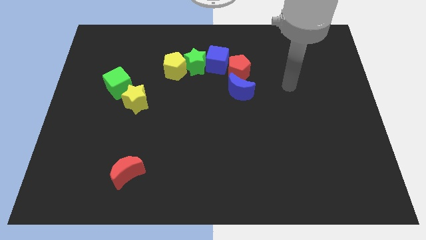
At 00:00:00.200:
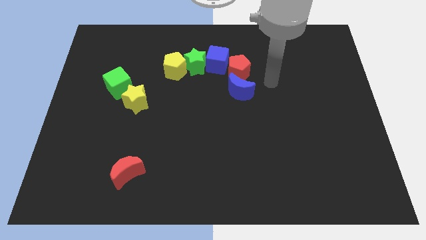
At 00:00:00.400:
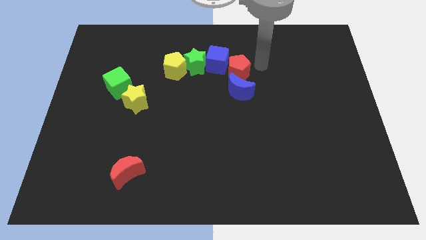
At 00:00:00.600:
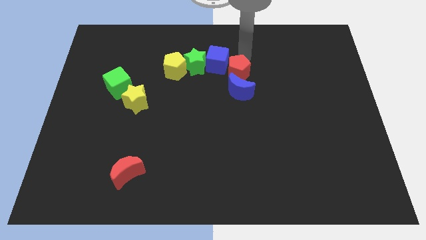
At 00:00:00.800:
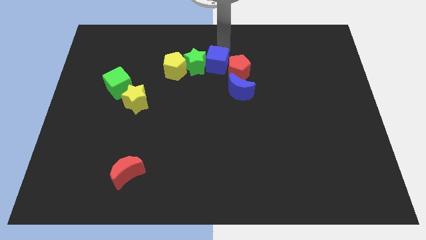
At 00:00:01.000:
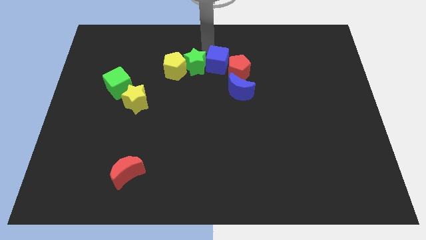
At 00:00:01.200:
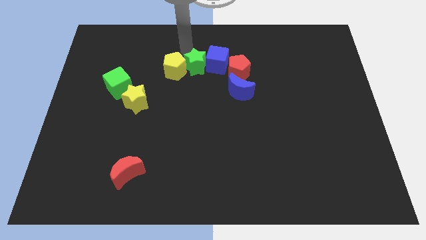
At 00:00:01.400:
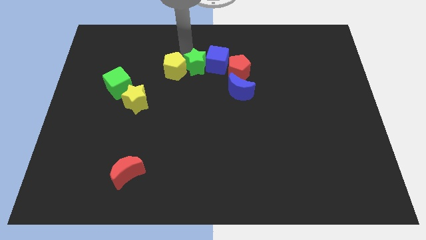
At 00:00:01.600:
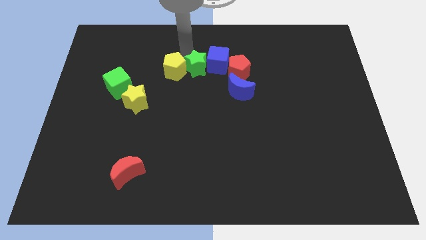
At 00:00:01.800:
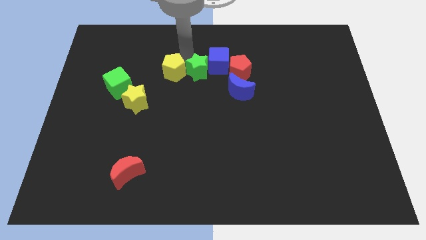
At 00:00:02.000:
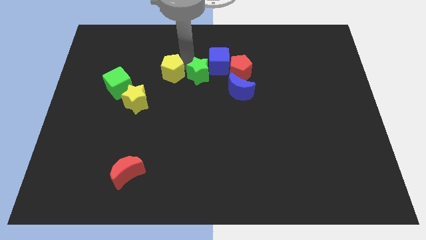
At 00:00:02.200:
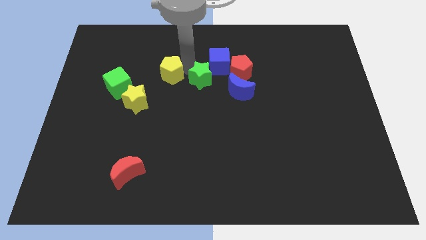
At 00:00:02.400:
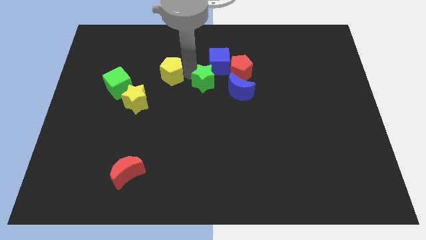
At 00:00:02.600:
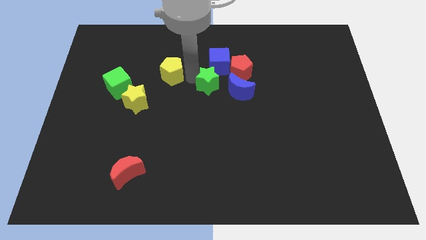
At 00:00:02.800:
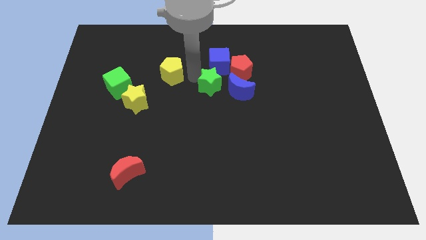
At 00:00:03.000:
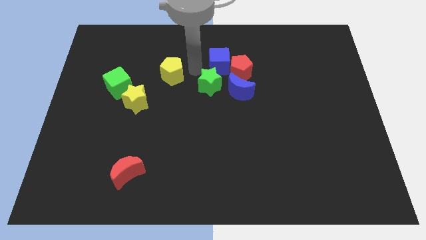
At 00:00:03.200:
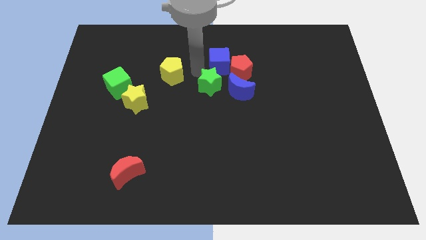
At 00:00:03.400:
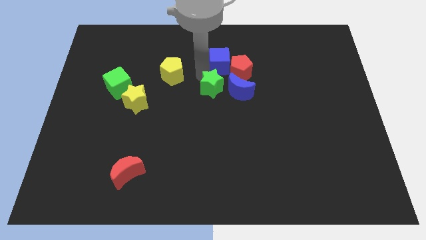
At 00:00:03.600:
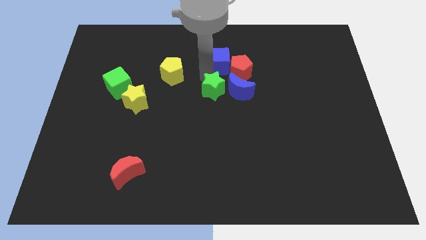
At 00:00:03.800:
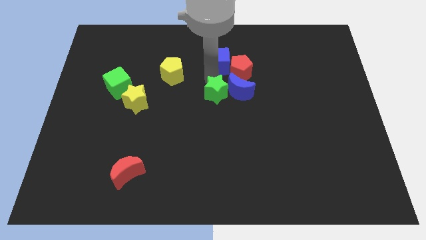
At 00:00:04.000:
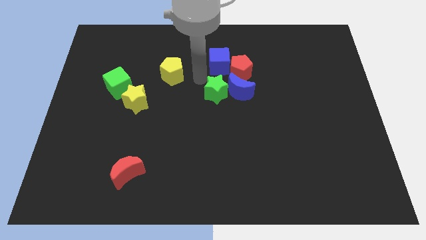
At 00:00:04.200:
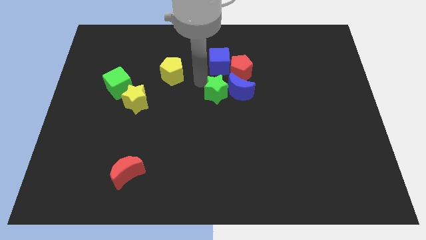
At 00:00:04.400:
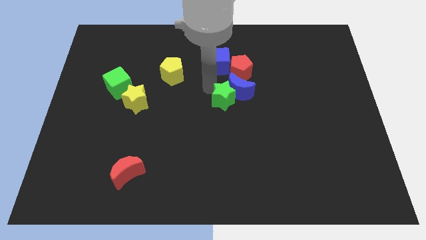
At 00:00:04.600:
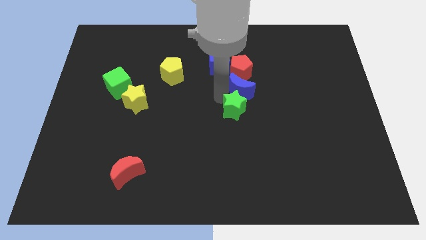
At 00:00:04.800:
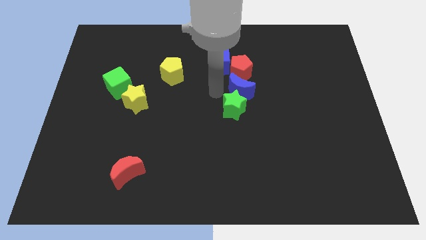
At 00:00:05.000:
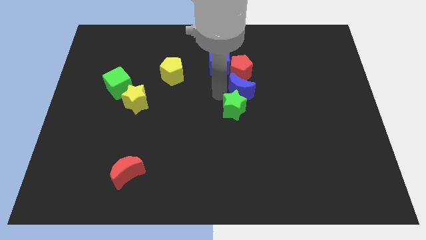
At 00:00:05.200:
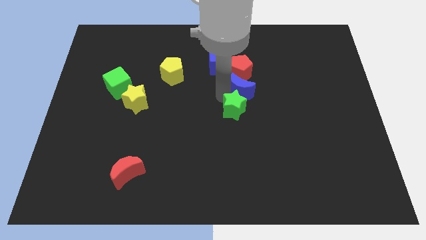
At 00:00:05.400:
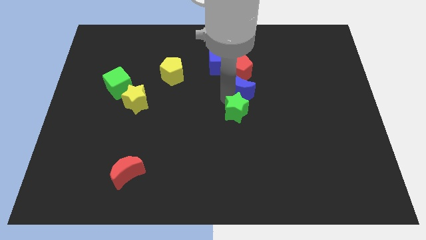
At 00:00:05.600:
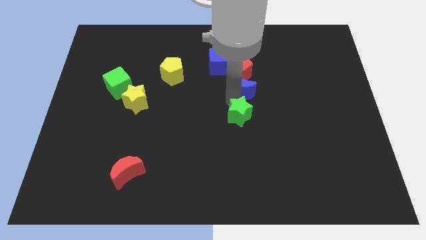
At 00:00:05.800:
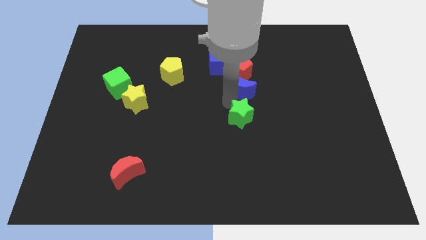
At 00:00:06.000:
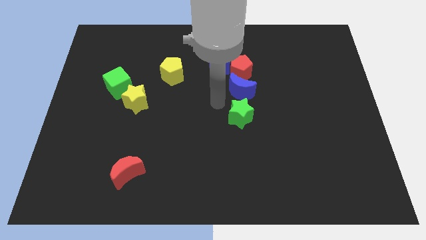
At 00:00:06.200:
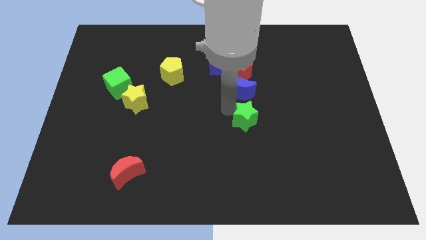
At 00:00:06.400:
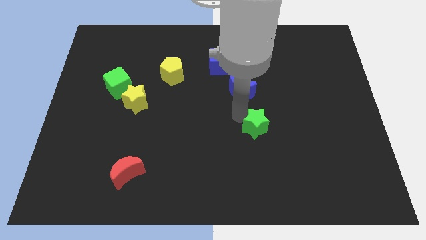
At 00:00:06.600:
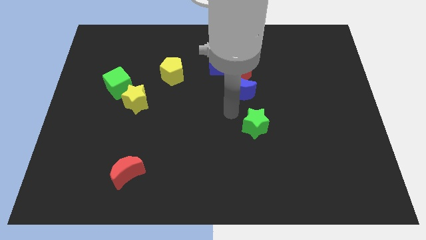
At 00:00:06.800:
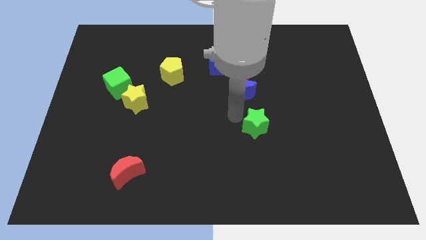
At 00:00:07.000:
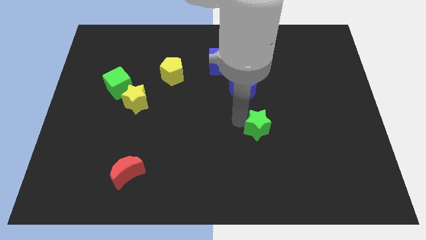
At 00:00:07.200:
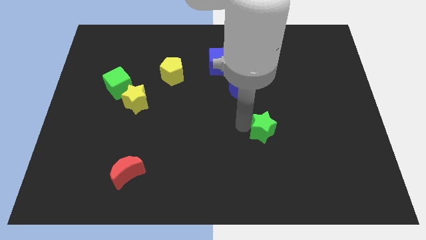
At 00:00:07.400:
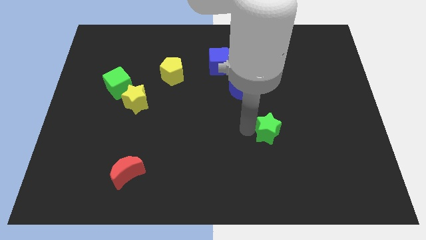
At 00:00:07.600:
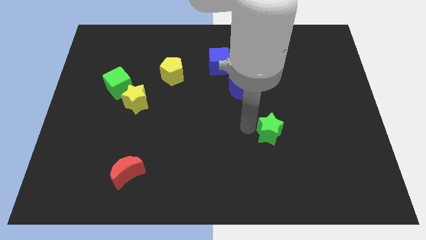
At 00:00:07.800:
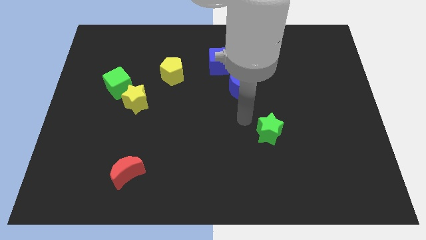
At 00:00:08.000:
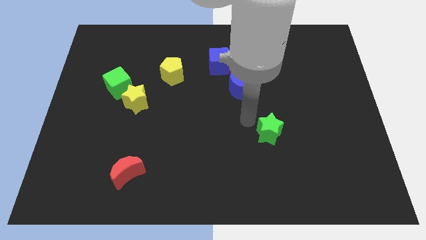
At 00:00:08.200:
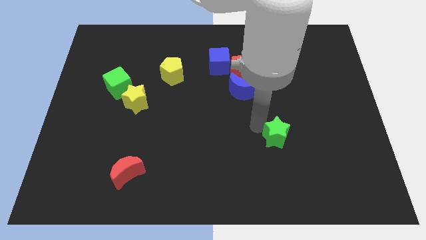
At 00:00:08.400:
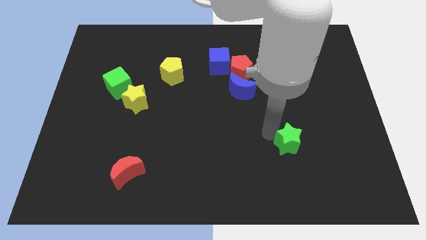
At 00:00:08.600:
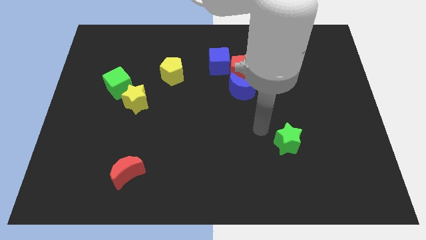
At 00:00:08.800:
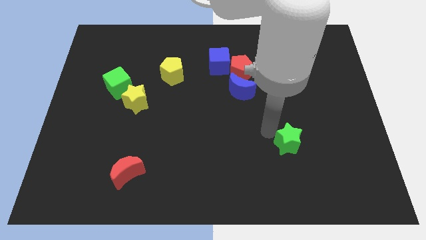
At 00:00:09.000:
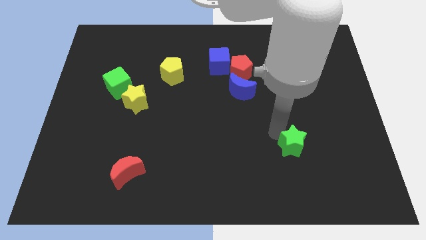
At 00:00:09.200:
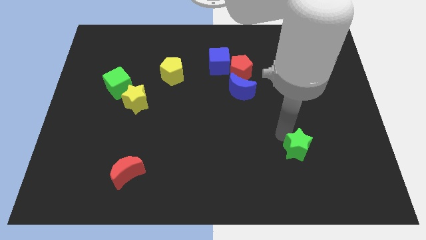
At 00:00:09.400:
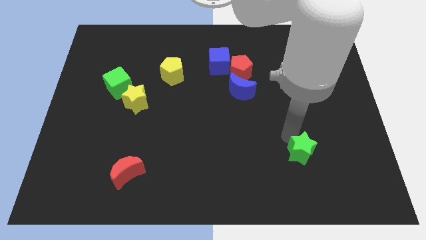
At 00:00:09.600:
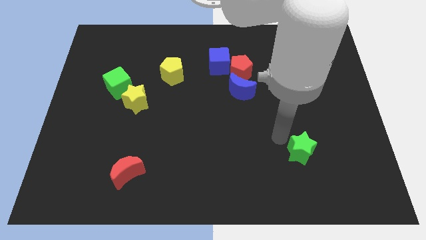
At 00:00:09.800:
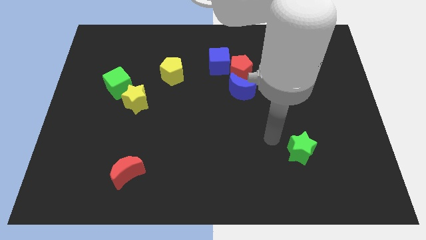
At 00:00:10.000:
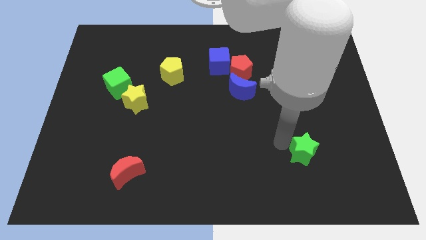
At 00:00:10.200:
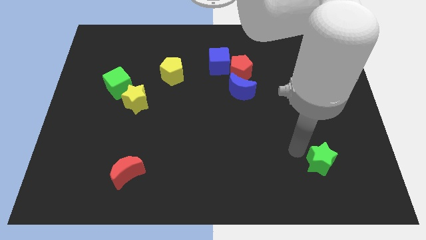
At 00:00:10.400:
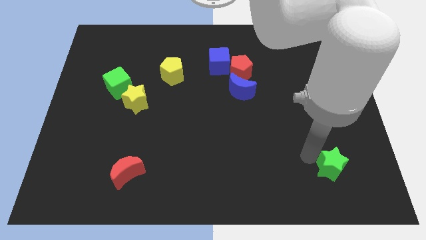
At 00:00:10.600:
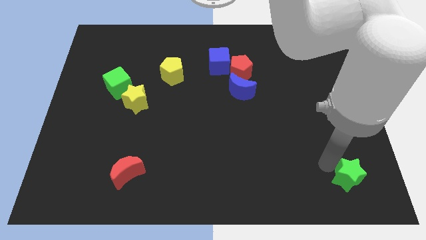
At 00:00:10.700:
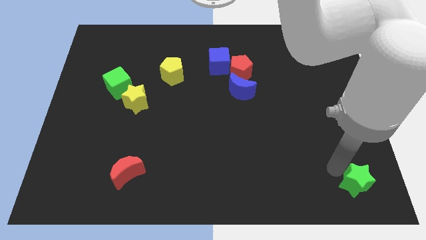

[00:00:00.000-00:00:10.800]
move the green star to the bottom right corner
